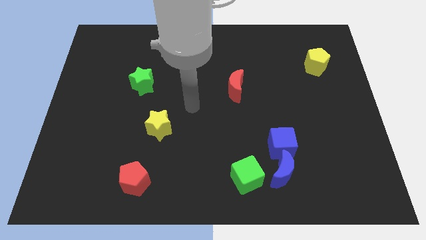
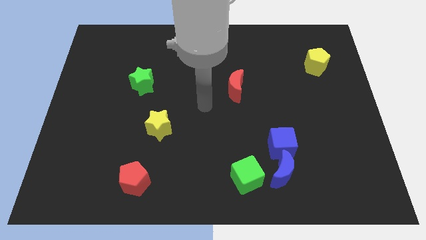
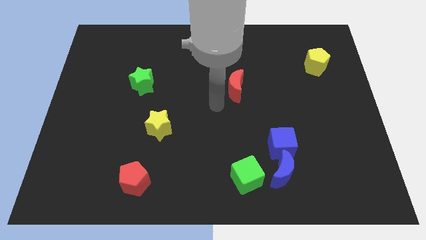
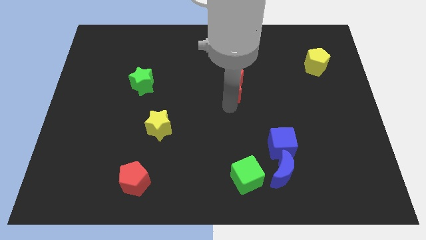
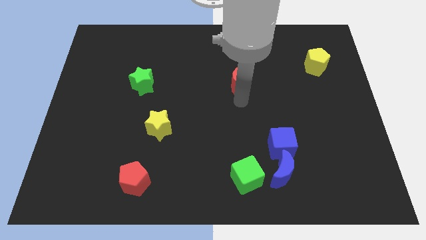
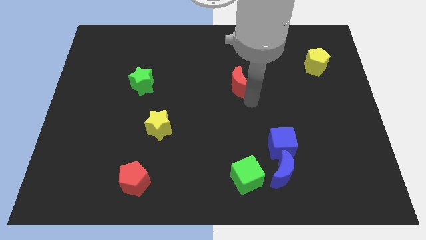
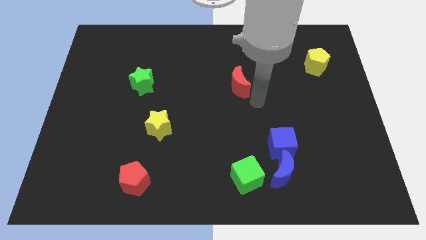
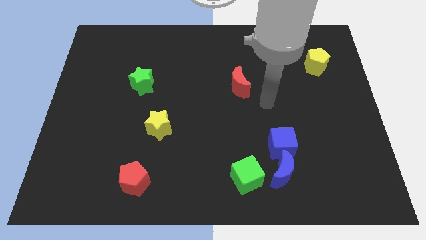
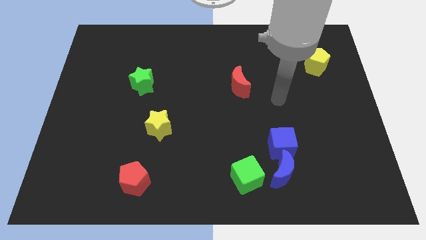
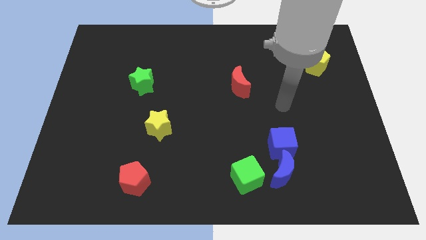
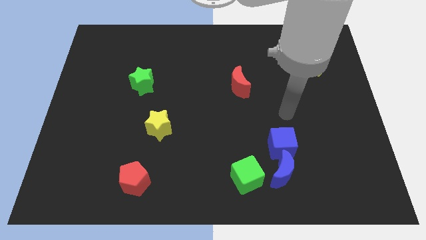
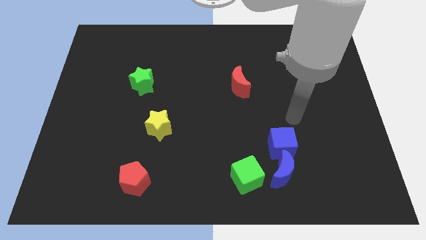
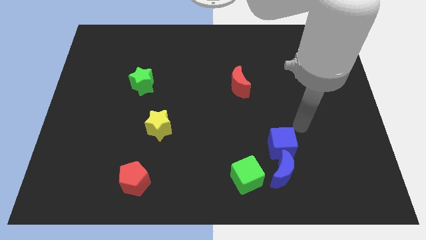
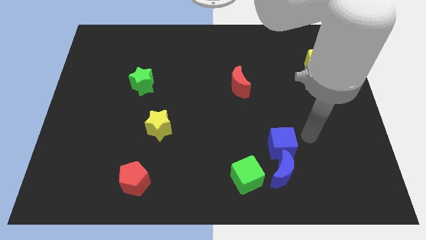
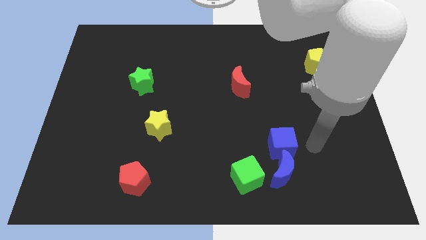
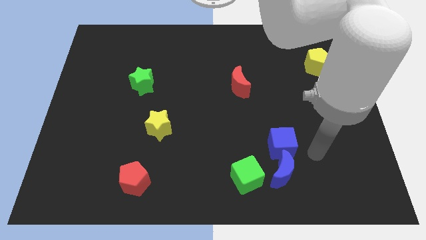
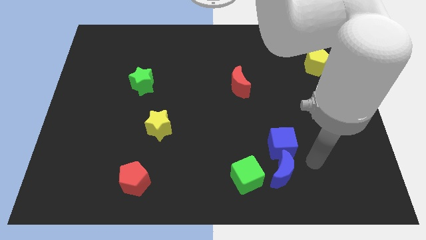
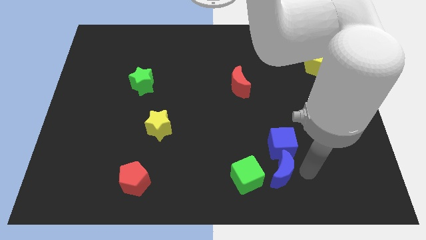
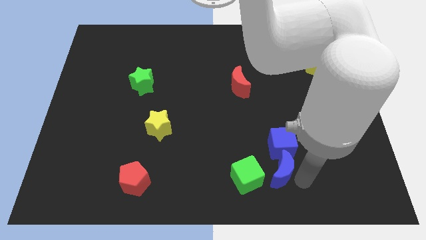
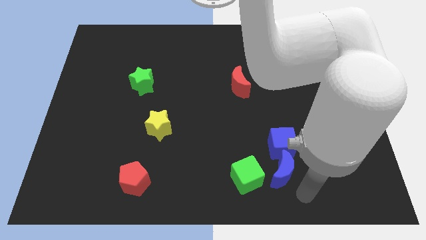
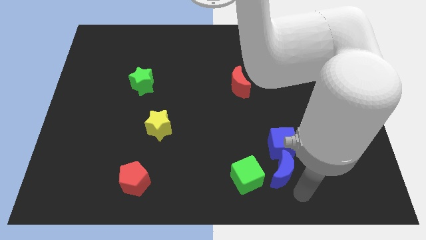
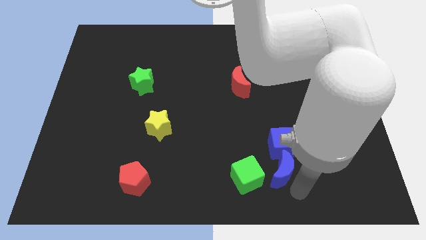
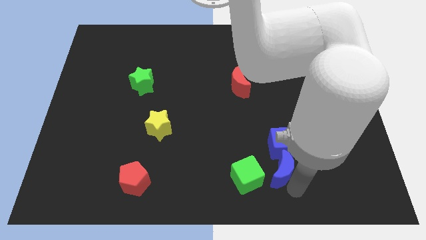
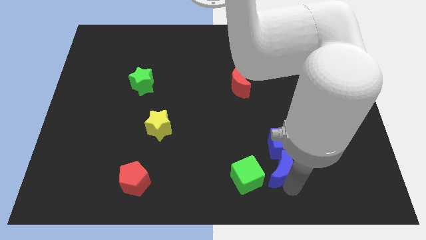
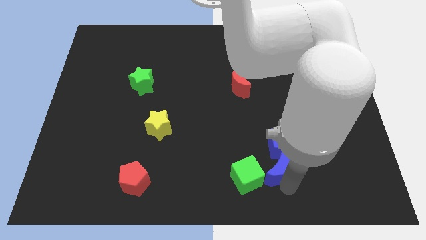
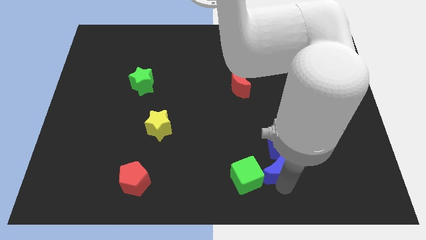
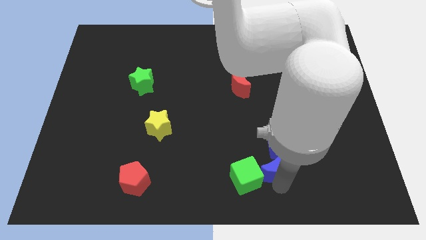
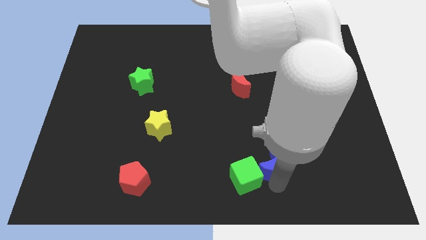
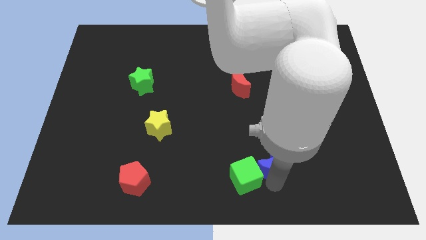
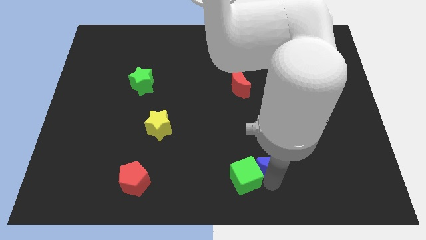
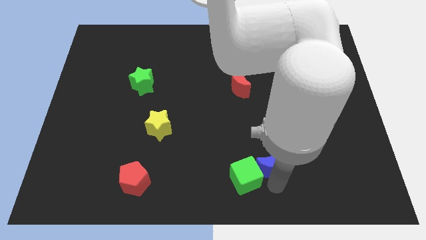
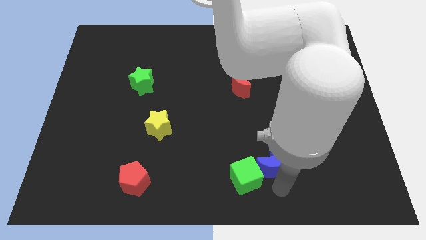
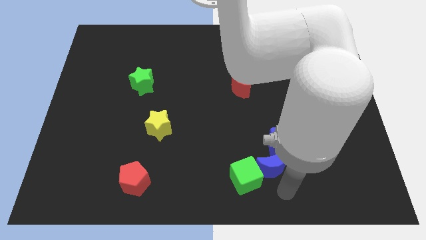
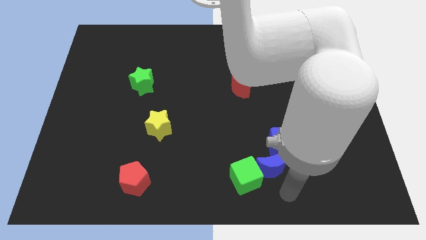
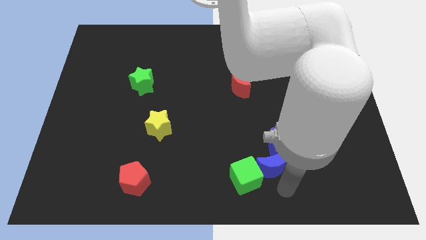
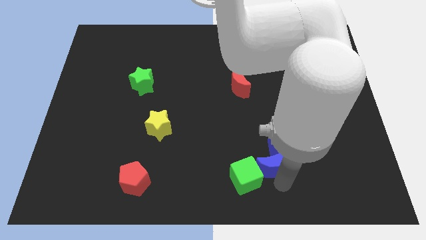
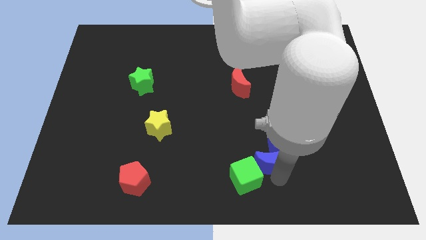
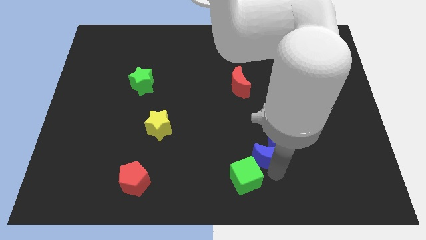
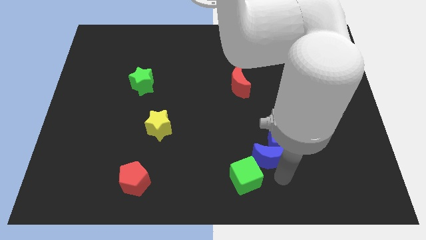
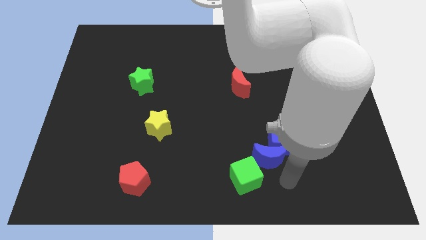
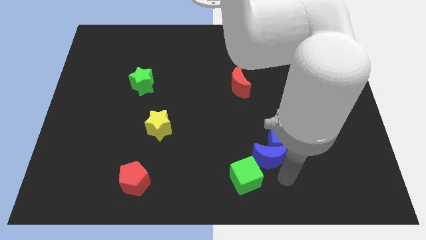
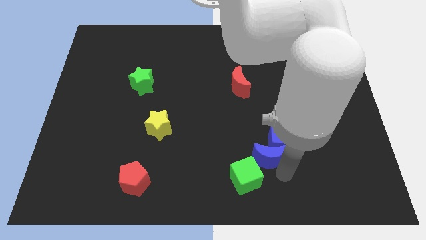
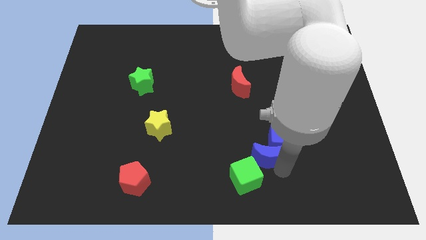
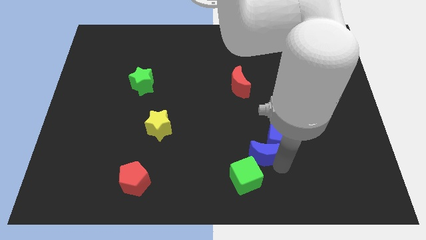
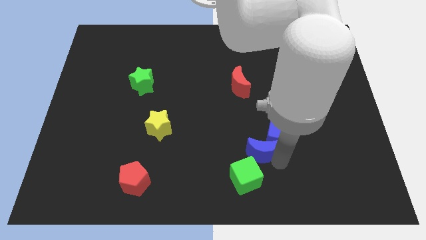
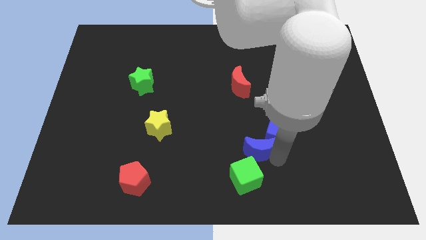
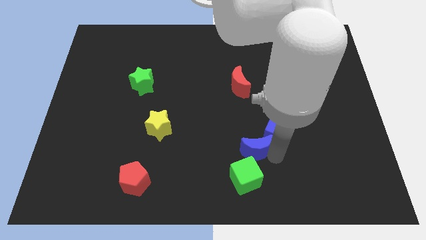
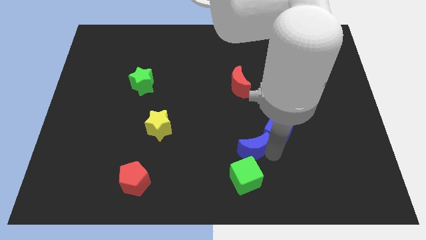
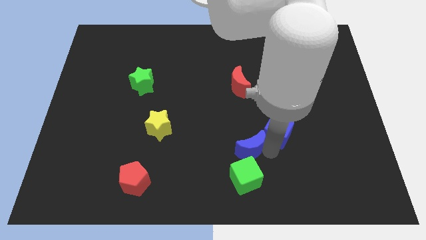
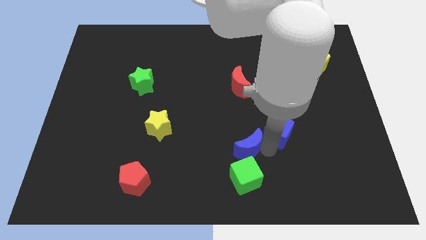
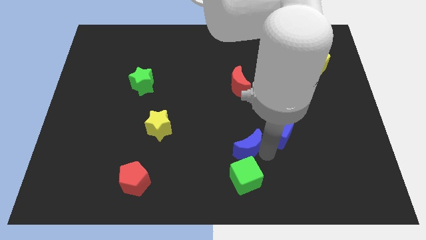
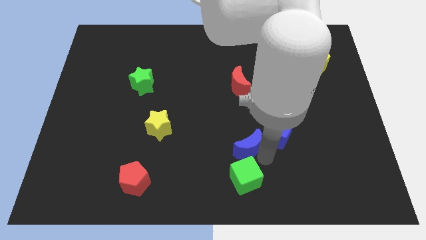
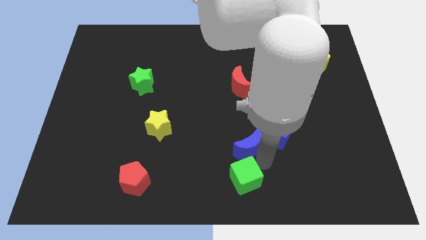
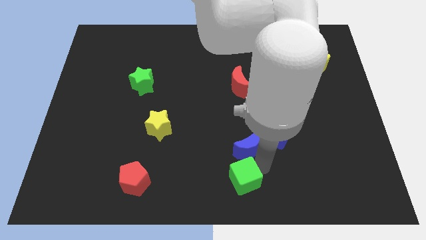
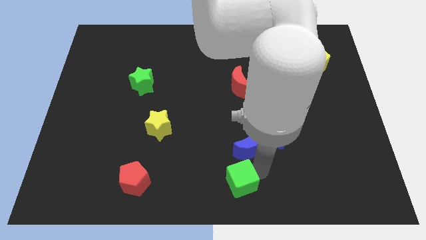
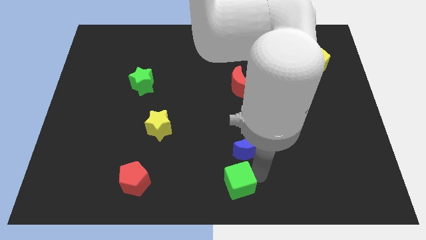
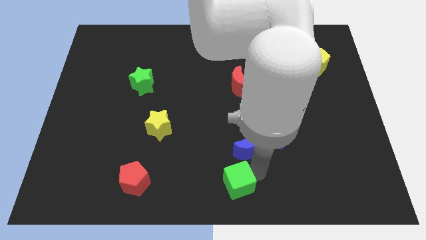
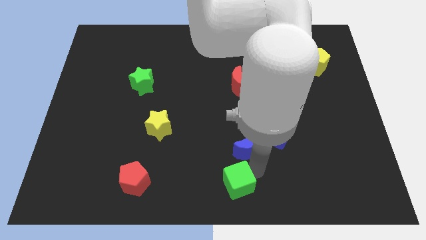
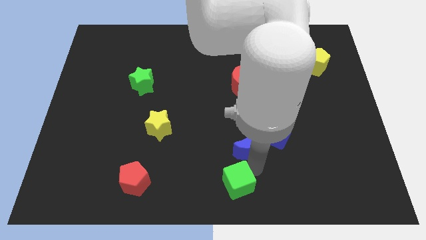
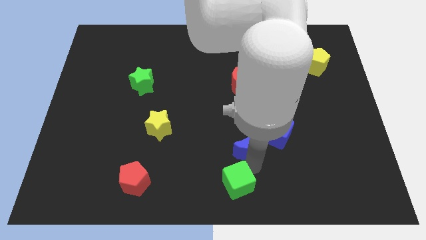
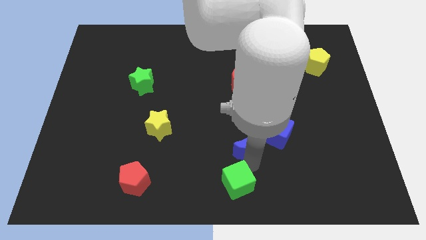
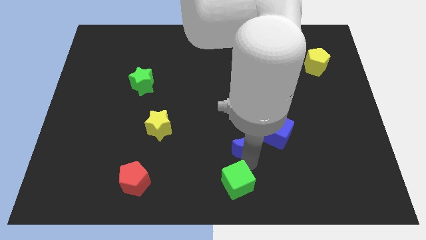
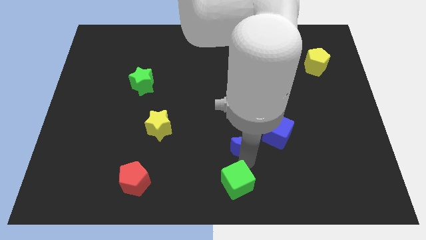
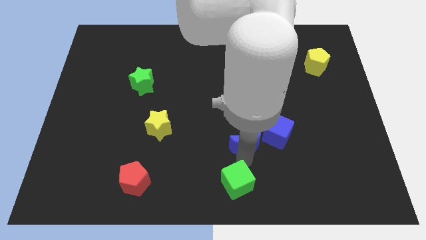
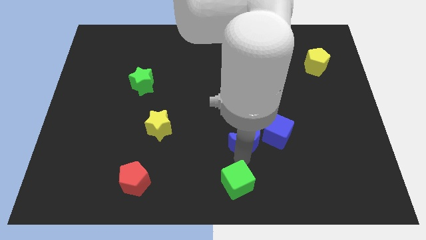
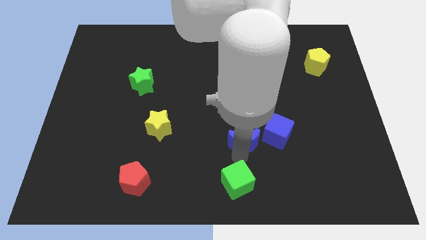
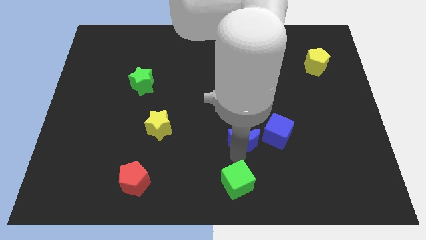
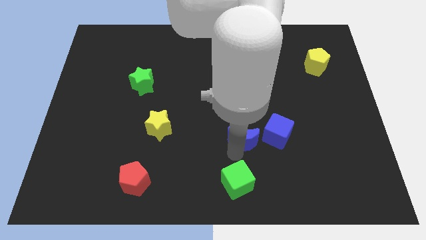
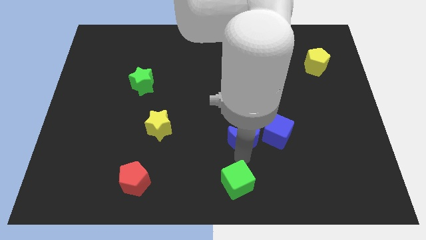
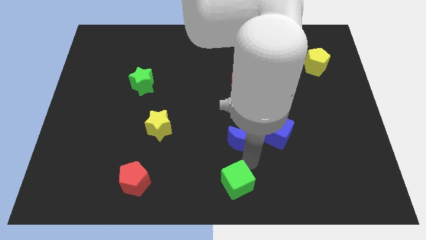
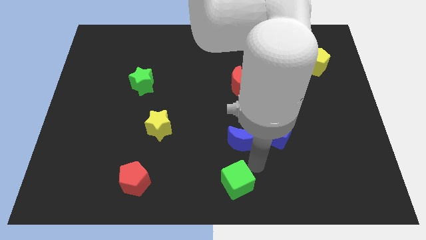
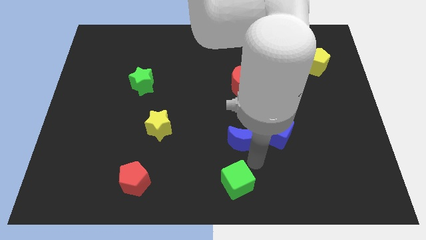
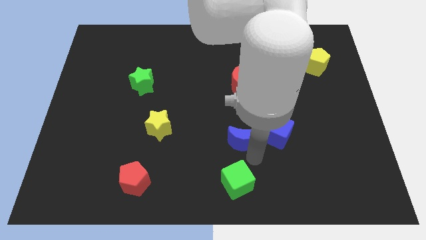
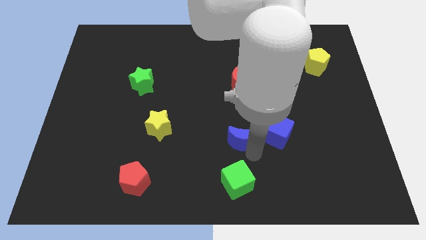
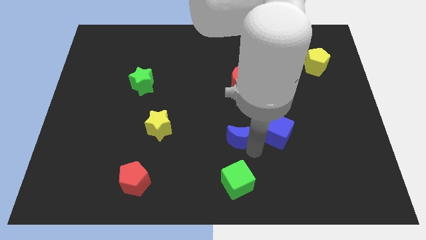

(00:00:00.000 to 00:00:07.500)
push the blue moon to the center
